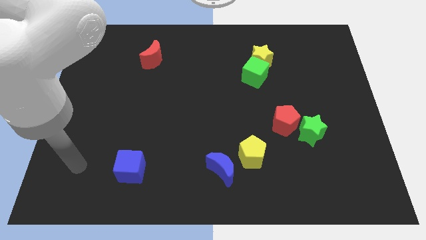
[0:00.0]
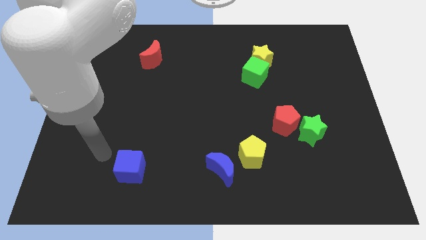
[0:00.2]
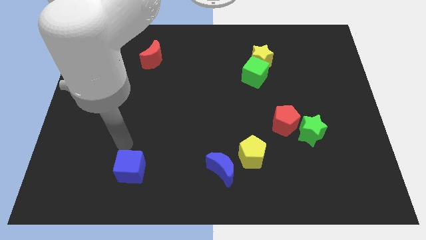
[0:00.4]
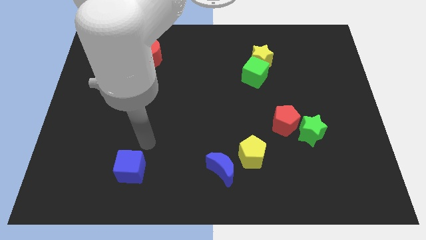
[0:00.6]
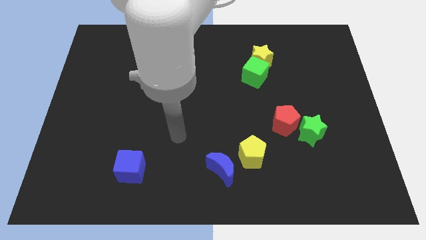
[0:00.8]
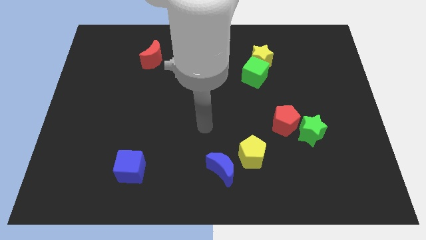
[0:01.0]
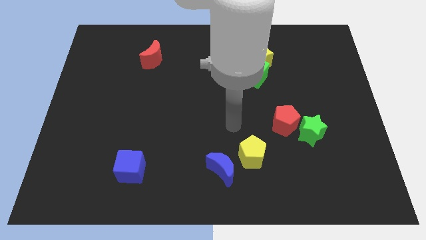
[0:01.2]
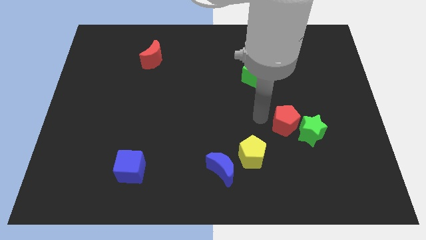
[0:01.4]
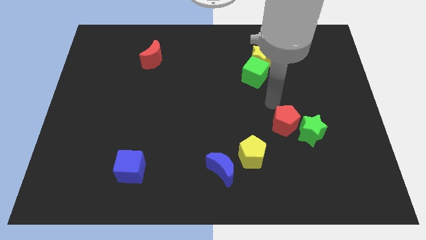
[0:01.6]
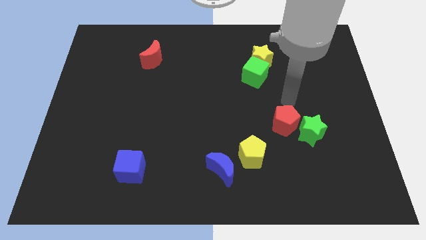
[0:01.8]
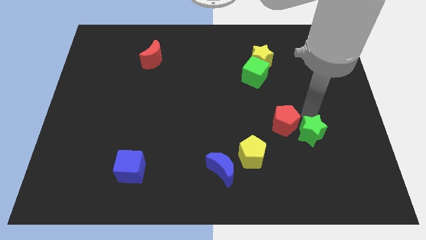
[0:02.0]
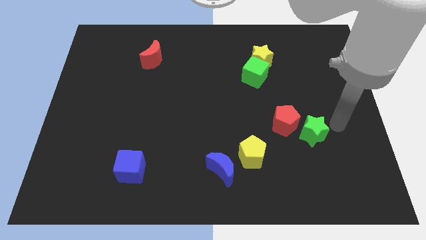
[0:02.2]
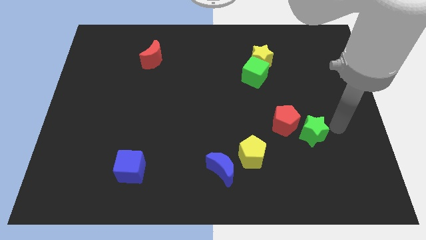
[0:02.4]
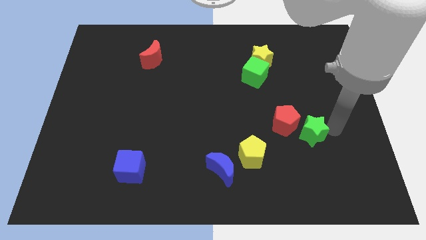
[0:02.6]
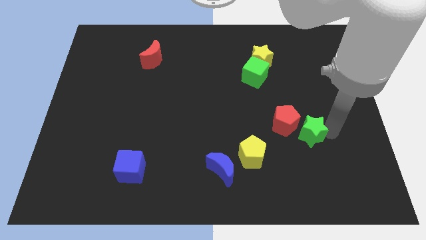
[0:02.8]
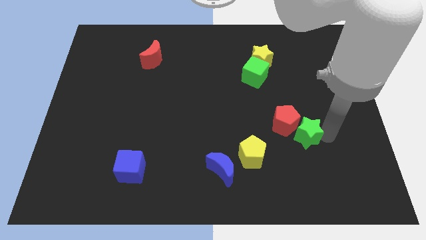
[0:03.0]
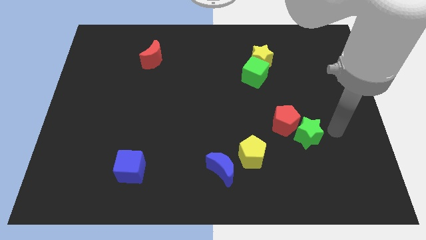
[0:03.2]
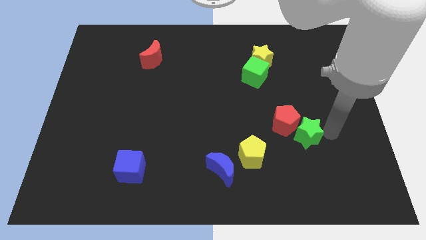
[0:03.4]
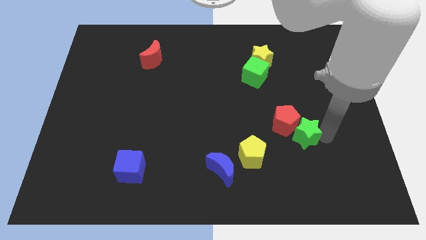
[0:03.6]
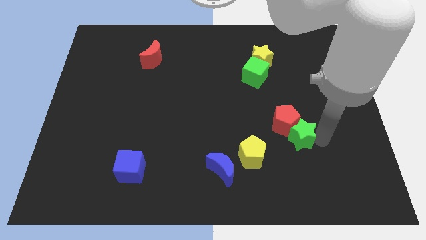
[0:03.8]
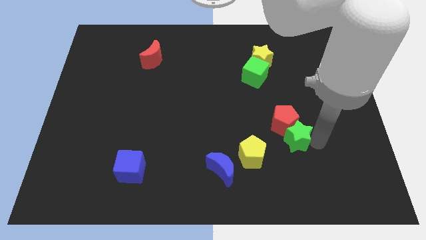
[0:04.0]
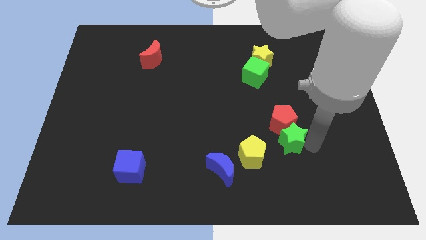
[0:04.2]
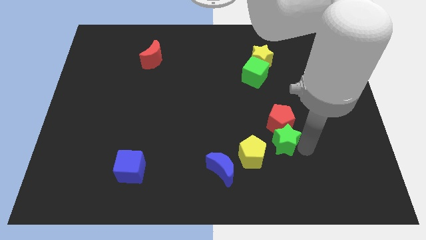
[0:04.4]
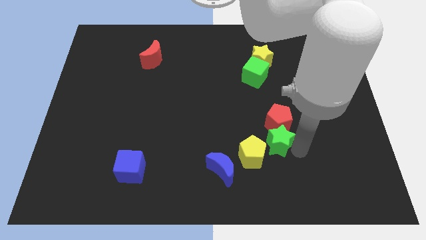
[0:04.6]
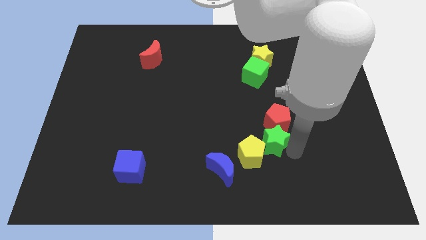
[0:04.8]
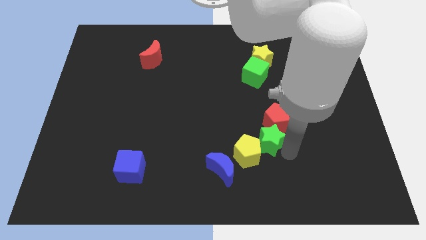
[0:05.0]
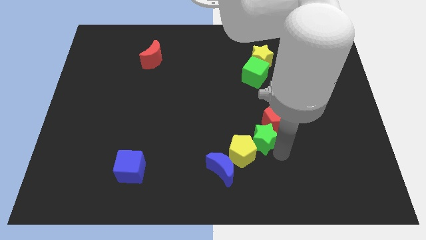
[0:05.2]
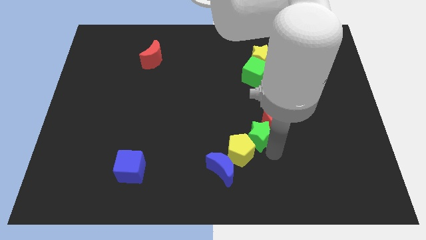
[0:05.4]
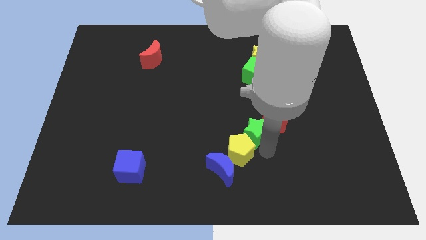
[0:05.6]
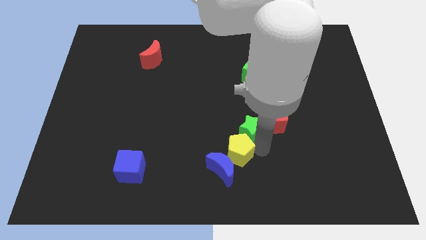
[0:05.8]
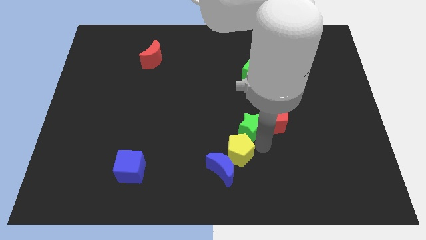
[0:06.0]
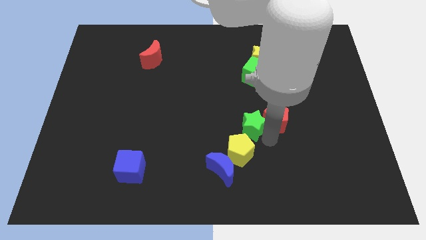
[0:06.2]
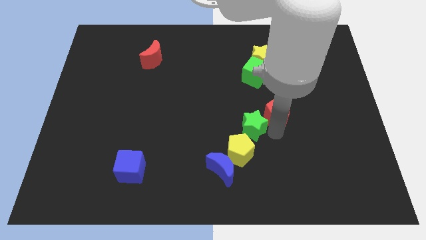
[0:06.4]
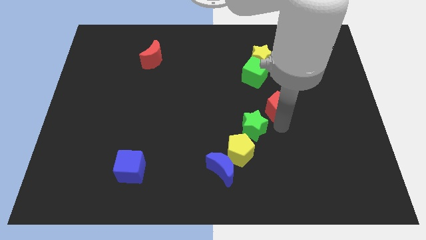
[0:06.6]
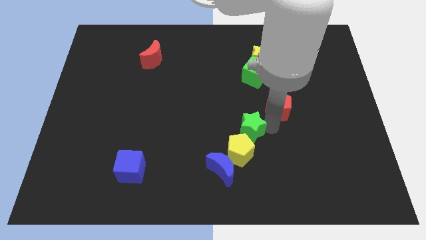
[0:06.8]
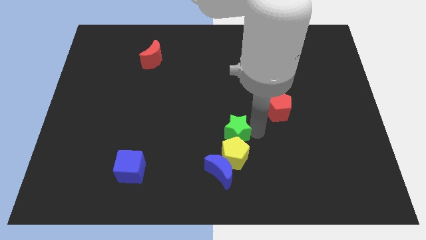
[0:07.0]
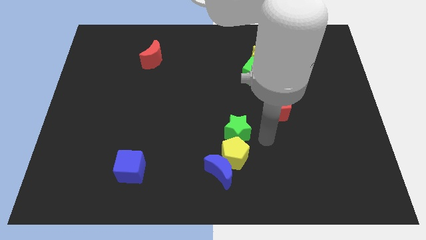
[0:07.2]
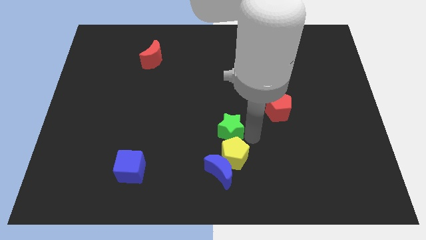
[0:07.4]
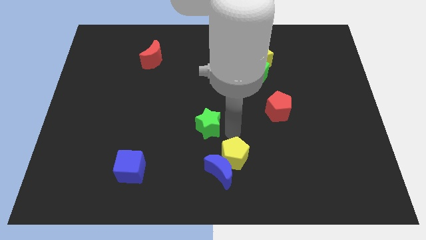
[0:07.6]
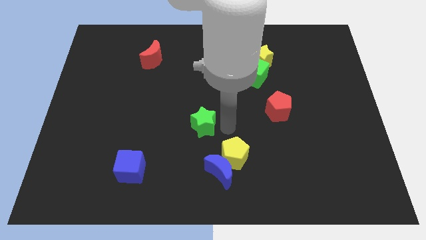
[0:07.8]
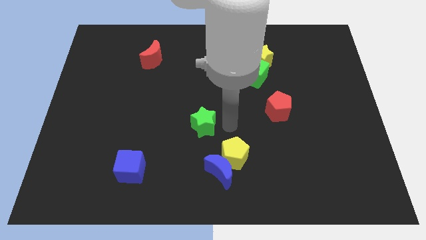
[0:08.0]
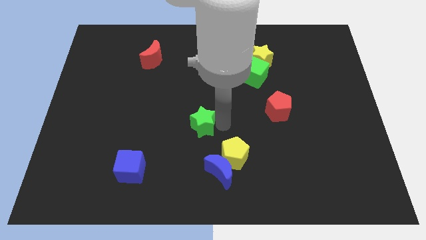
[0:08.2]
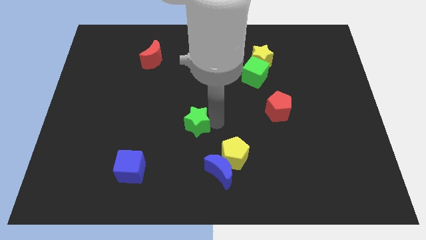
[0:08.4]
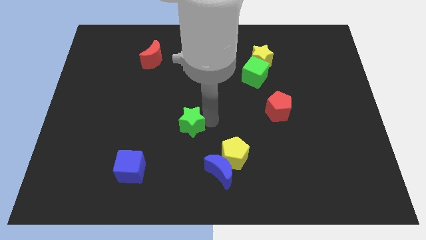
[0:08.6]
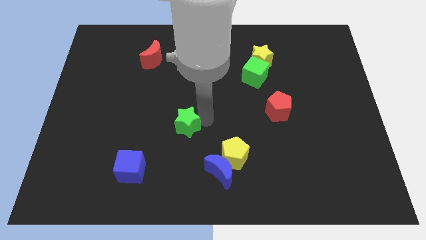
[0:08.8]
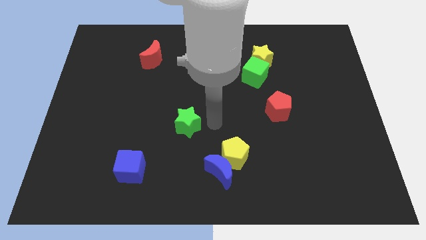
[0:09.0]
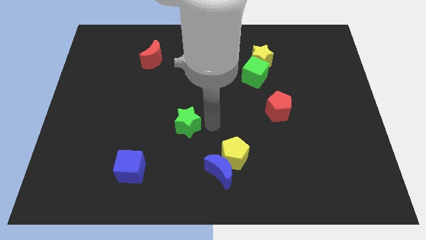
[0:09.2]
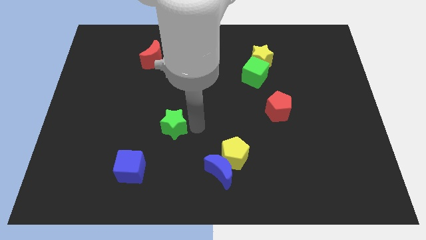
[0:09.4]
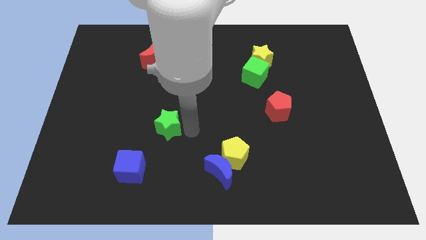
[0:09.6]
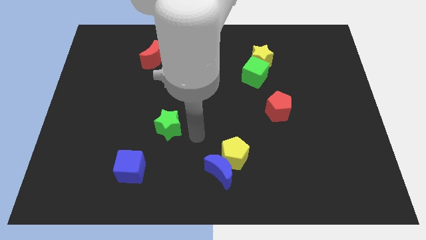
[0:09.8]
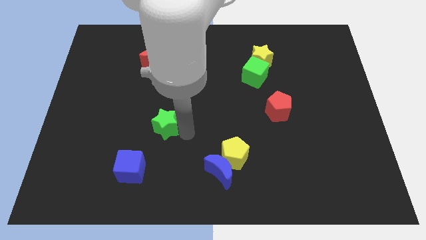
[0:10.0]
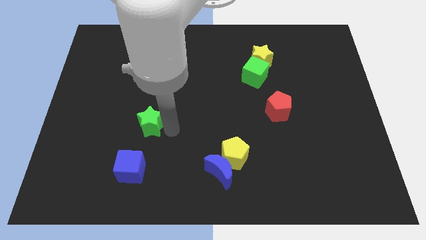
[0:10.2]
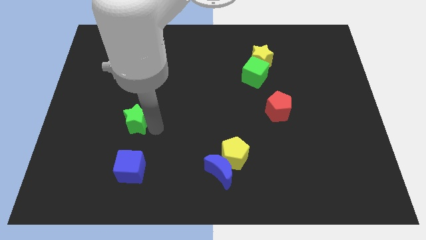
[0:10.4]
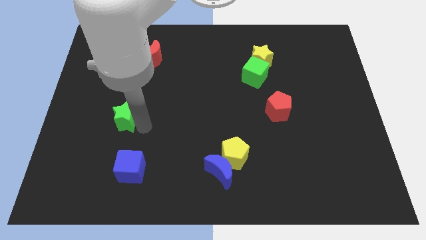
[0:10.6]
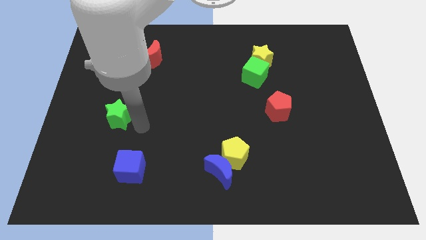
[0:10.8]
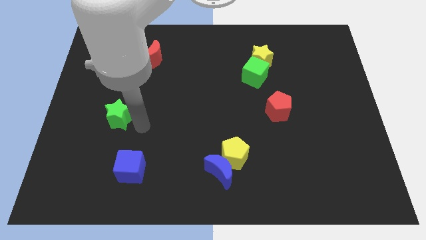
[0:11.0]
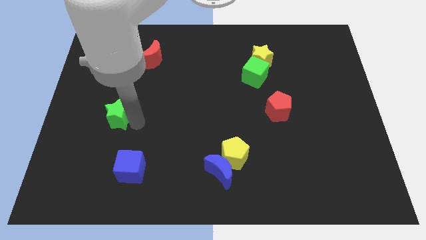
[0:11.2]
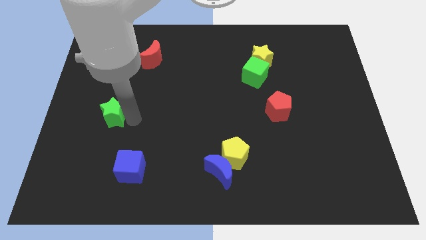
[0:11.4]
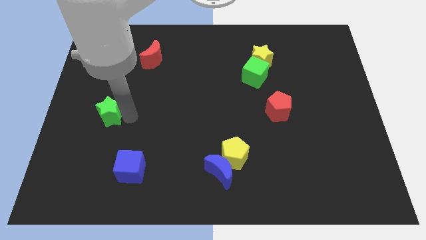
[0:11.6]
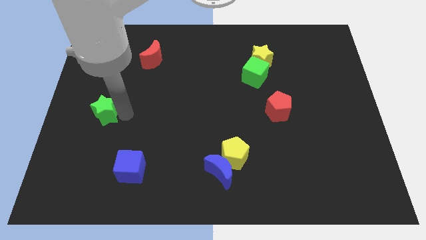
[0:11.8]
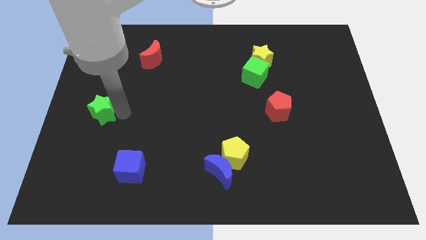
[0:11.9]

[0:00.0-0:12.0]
slide the green star to the left side of the board

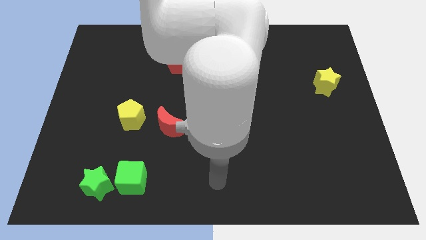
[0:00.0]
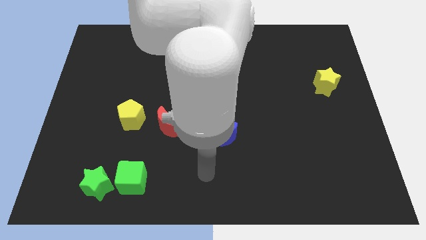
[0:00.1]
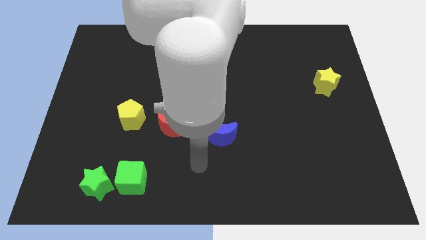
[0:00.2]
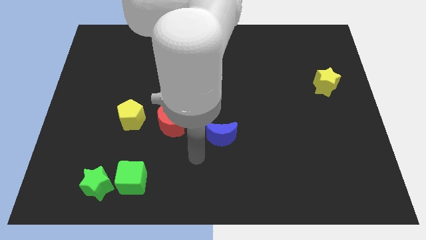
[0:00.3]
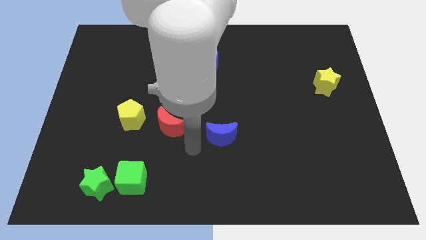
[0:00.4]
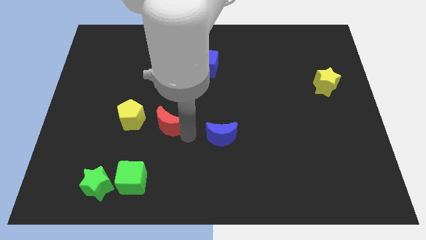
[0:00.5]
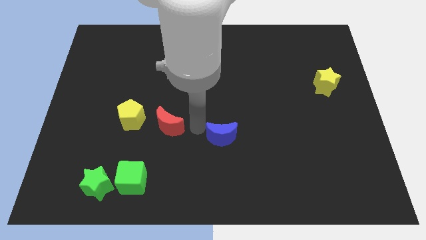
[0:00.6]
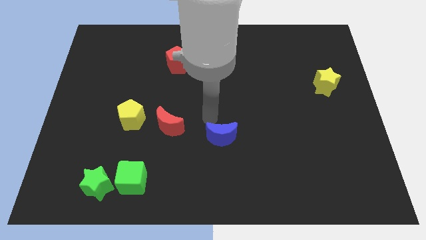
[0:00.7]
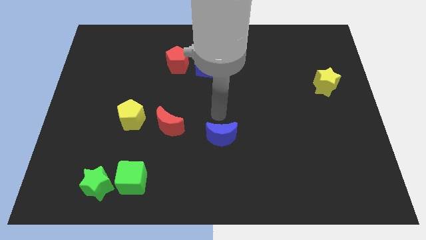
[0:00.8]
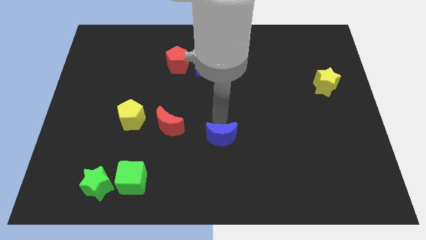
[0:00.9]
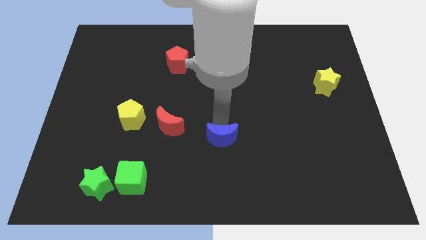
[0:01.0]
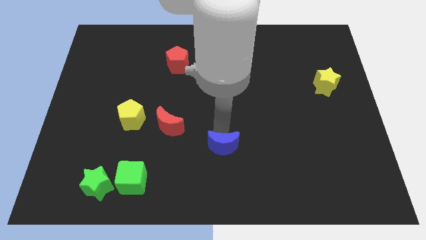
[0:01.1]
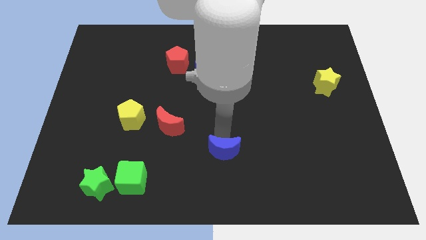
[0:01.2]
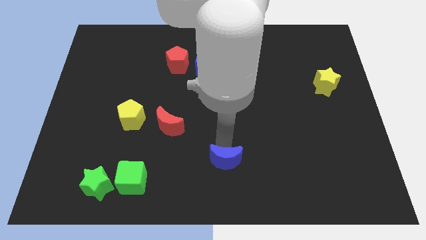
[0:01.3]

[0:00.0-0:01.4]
put the blue moon to the bottom
